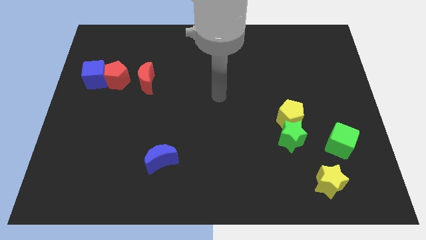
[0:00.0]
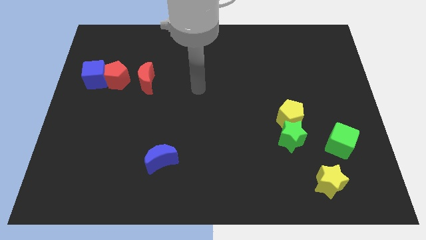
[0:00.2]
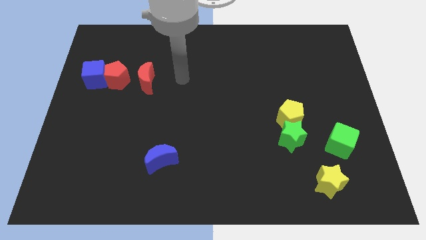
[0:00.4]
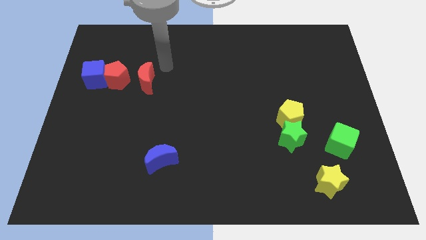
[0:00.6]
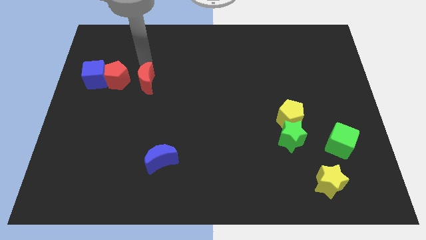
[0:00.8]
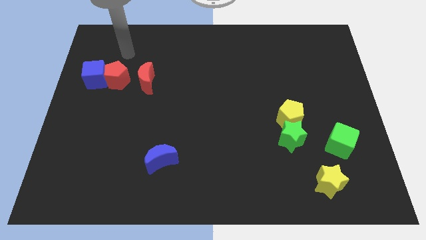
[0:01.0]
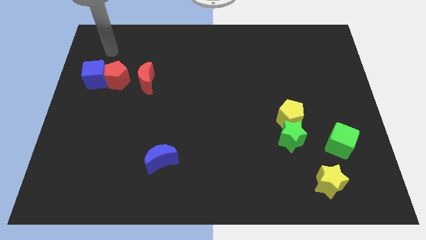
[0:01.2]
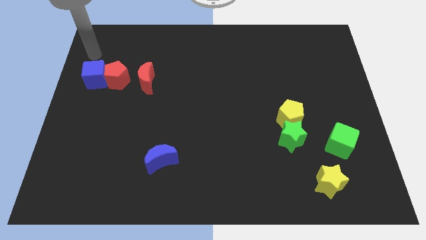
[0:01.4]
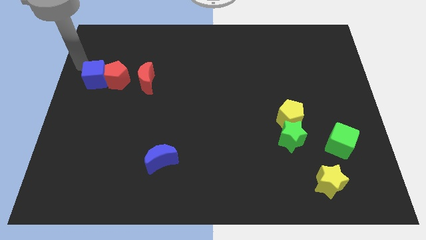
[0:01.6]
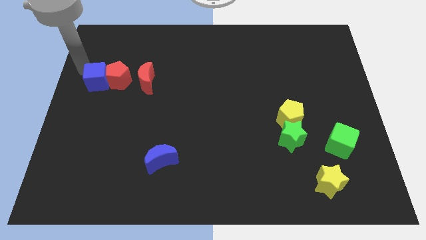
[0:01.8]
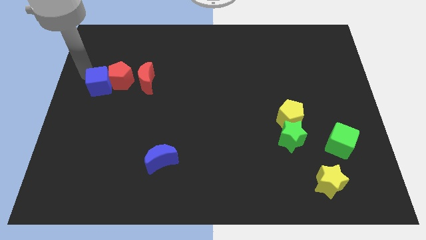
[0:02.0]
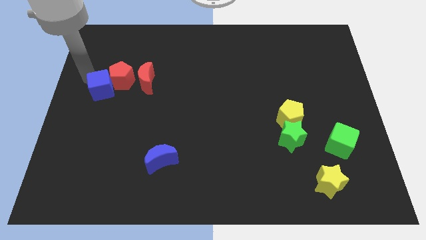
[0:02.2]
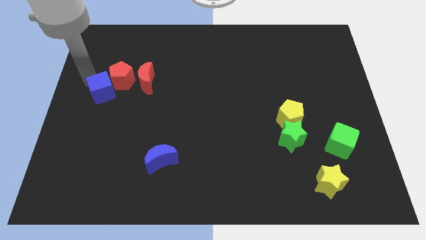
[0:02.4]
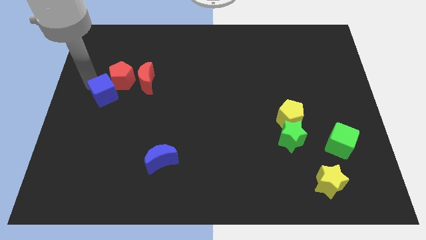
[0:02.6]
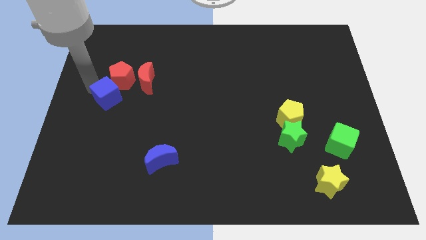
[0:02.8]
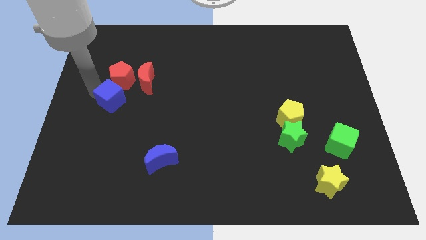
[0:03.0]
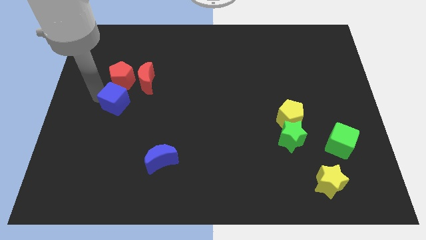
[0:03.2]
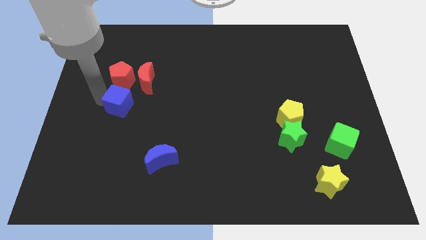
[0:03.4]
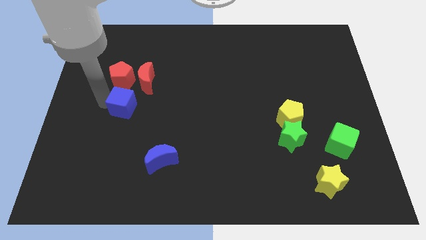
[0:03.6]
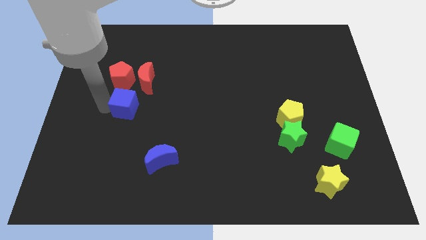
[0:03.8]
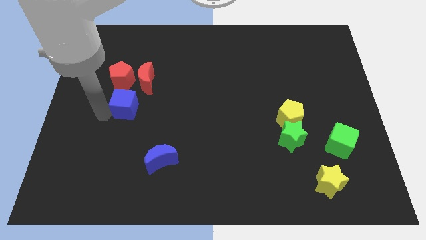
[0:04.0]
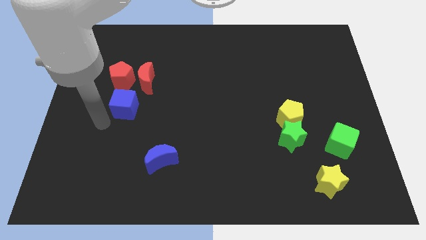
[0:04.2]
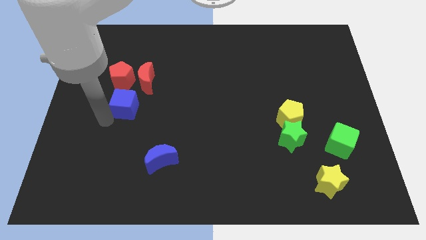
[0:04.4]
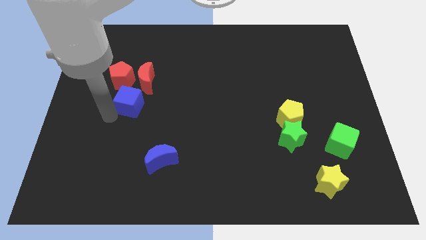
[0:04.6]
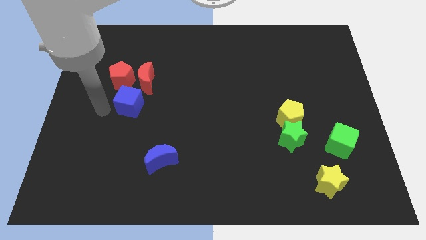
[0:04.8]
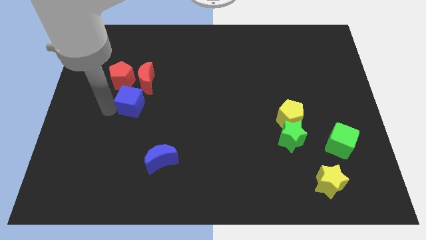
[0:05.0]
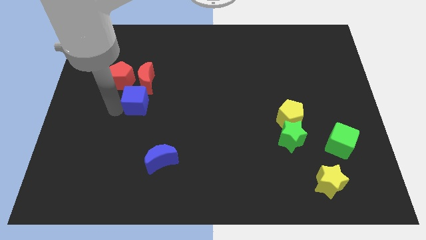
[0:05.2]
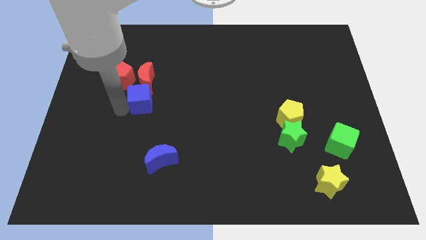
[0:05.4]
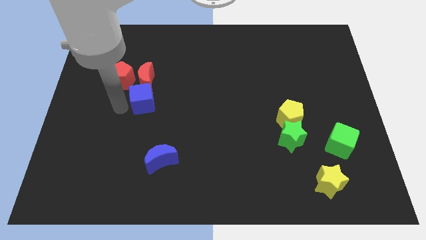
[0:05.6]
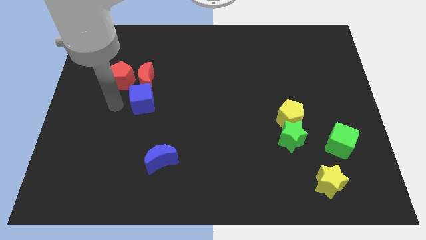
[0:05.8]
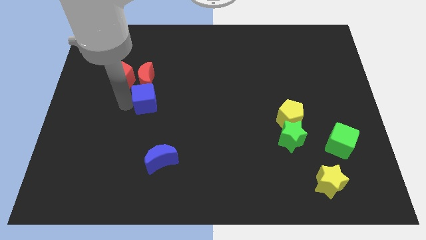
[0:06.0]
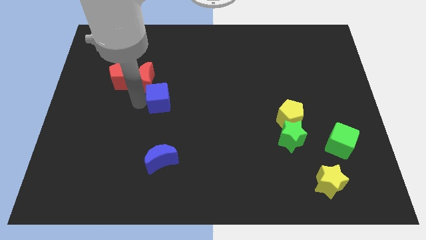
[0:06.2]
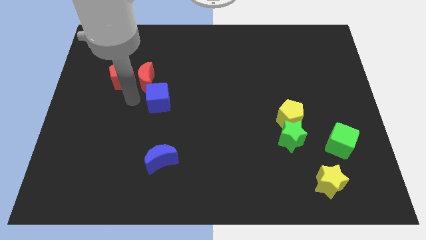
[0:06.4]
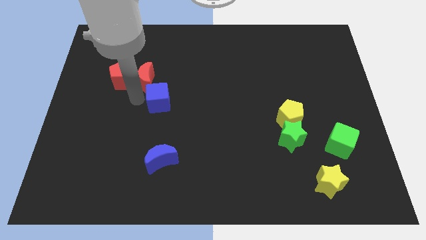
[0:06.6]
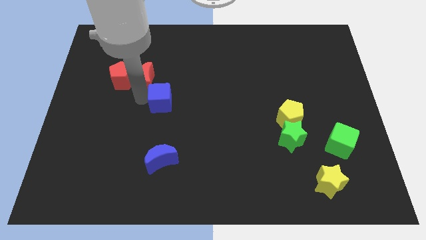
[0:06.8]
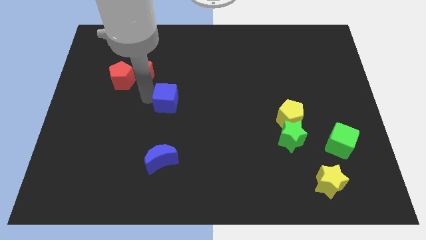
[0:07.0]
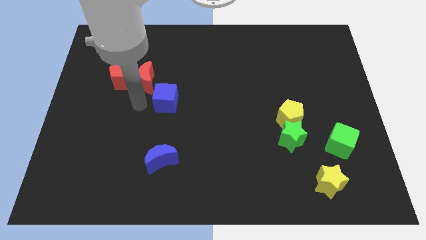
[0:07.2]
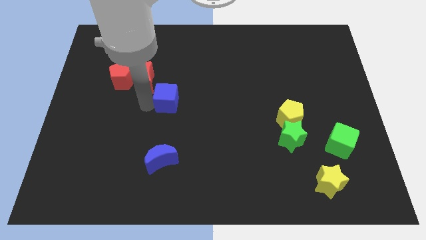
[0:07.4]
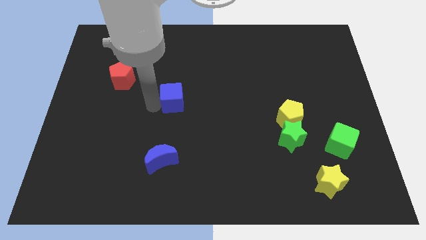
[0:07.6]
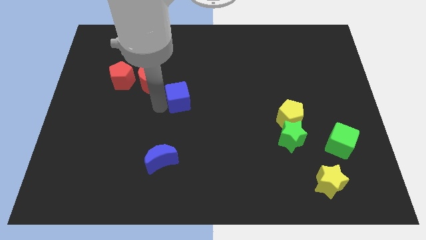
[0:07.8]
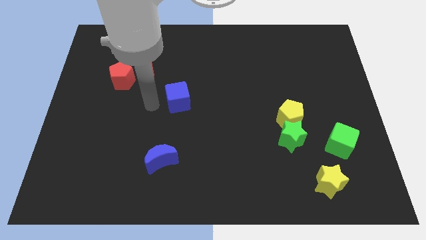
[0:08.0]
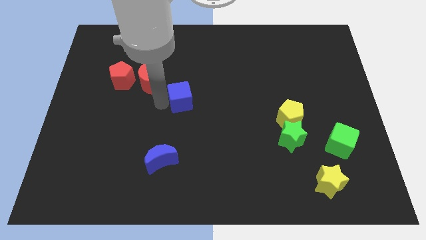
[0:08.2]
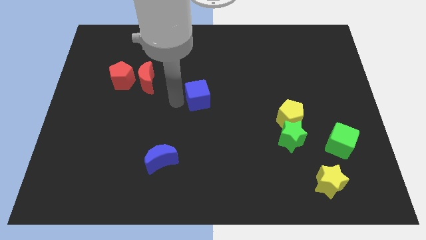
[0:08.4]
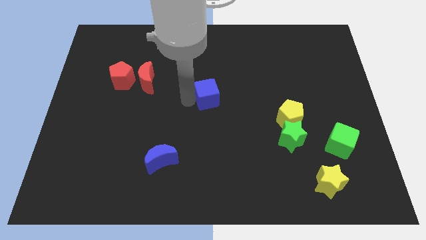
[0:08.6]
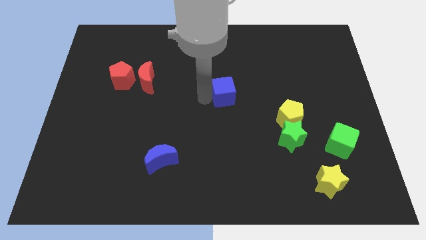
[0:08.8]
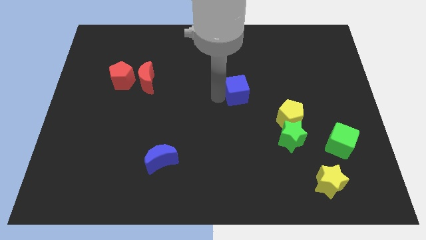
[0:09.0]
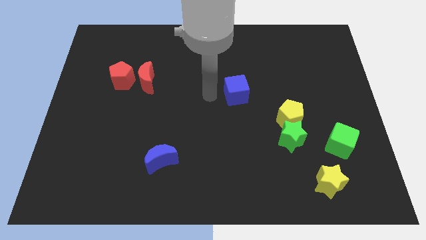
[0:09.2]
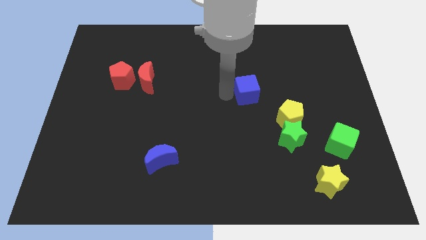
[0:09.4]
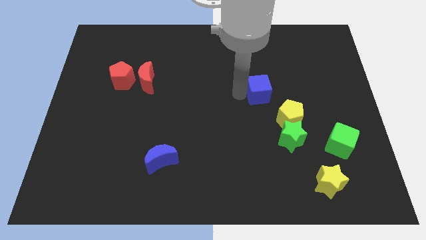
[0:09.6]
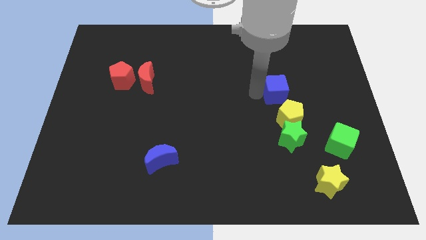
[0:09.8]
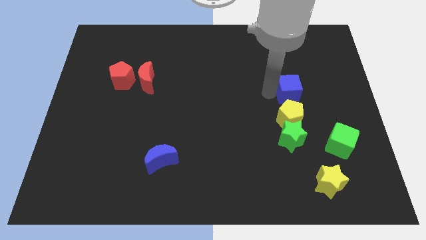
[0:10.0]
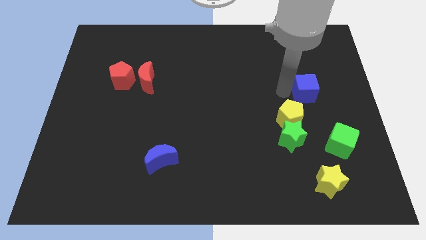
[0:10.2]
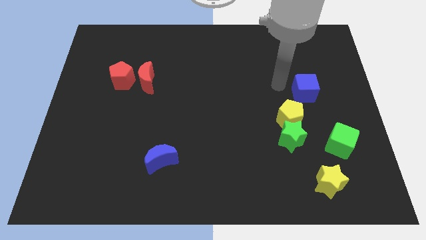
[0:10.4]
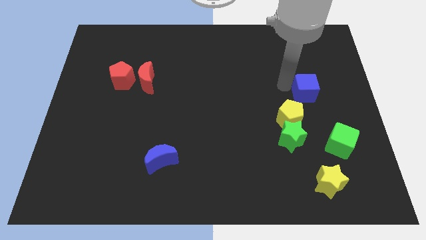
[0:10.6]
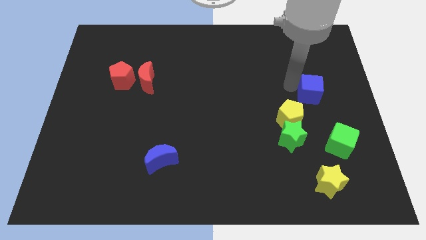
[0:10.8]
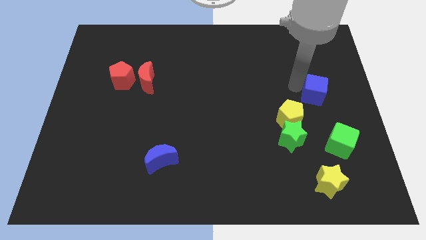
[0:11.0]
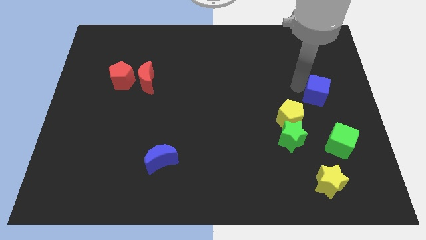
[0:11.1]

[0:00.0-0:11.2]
move the blue cube to the right side of the board

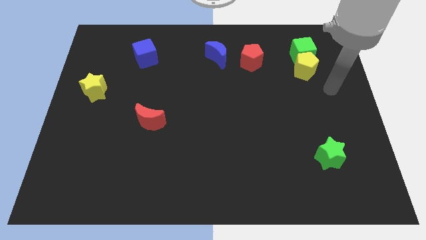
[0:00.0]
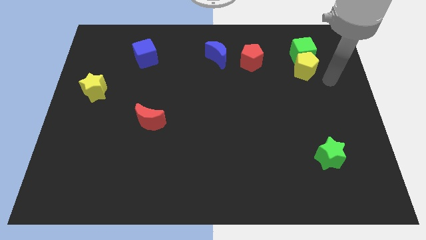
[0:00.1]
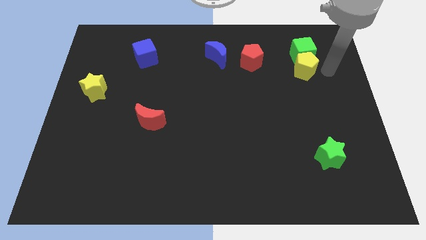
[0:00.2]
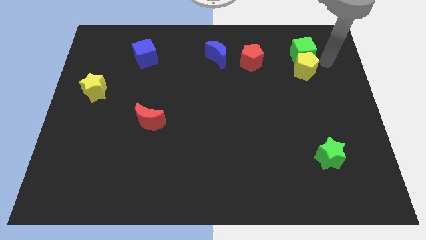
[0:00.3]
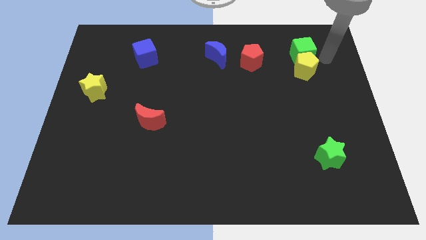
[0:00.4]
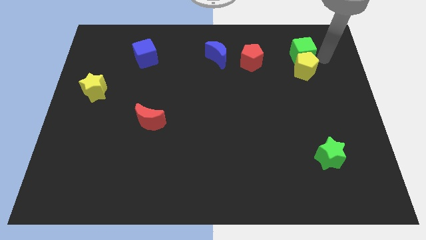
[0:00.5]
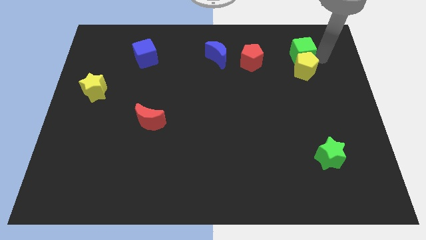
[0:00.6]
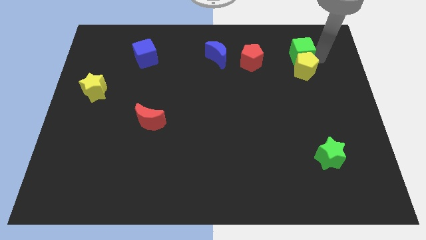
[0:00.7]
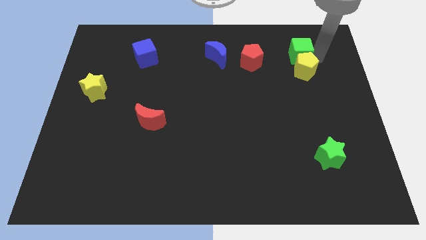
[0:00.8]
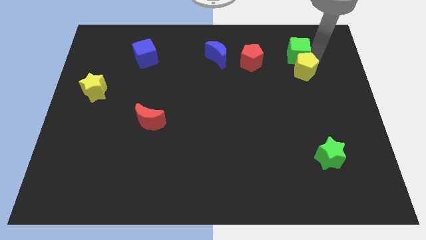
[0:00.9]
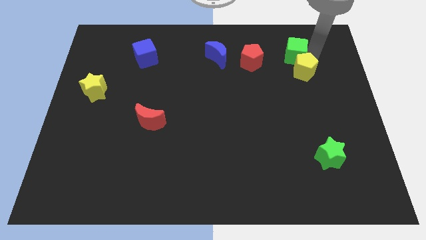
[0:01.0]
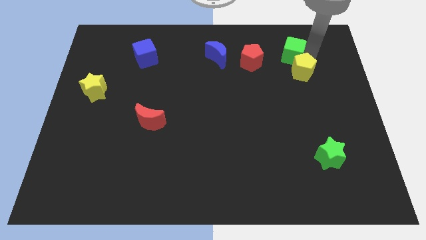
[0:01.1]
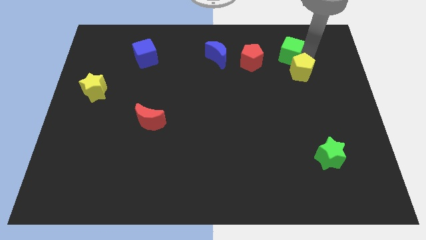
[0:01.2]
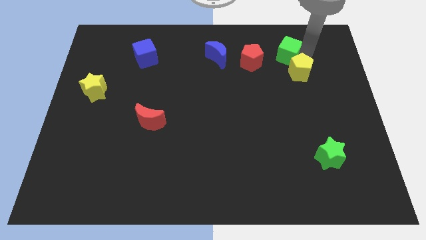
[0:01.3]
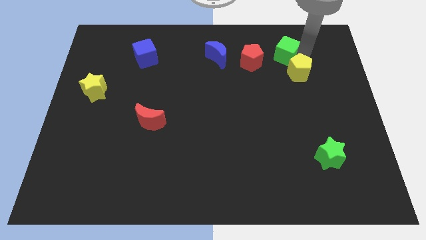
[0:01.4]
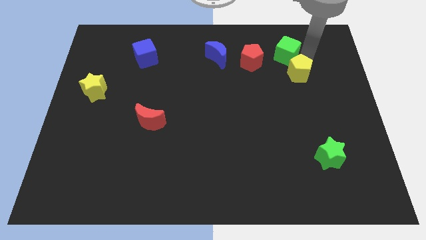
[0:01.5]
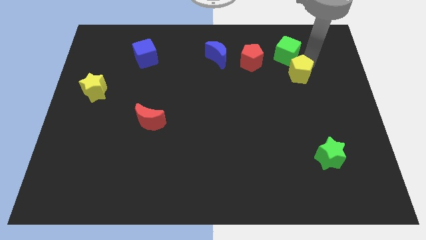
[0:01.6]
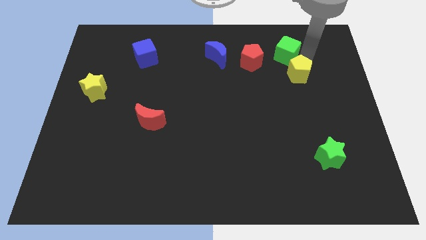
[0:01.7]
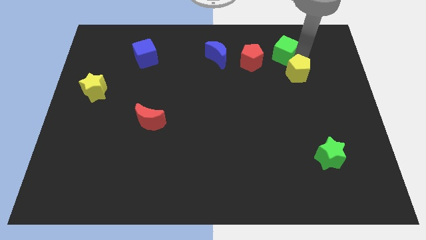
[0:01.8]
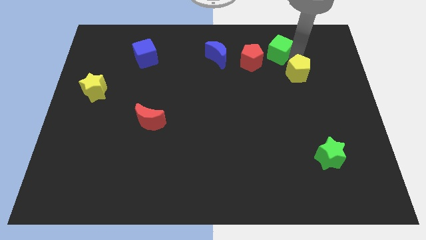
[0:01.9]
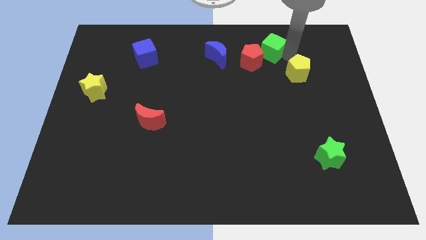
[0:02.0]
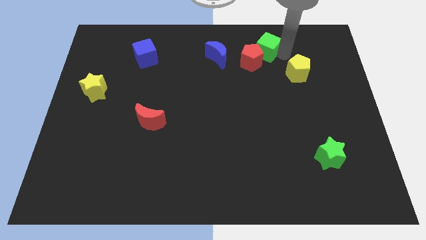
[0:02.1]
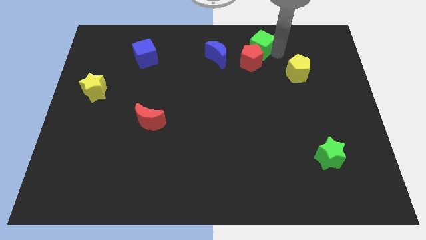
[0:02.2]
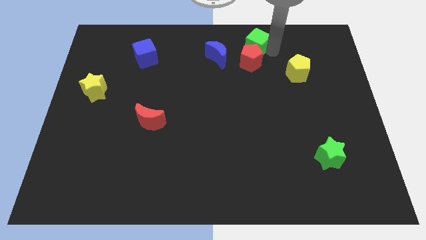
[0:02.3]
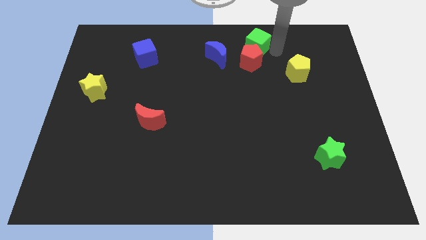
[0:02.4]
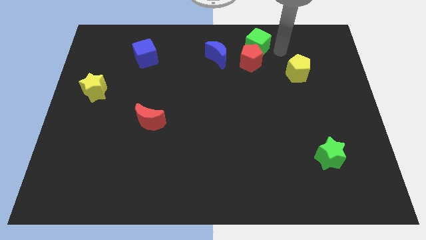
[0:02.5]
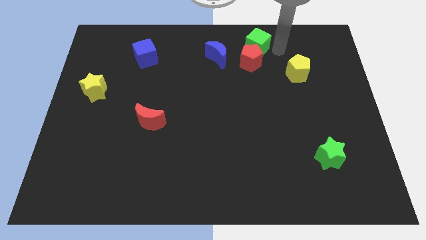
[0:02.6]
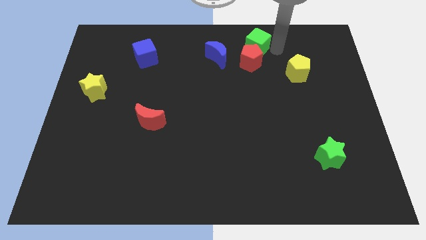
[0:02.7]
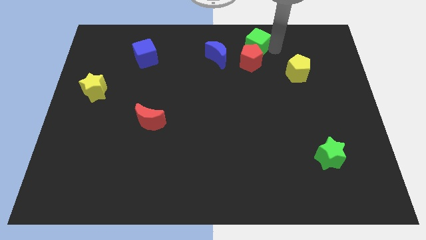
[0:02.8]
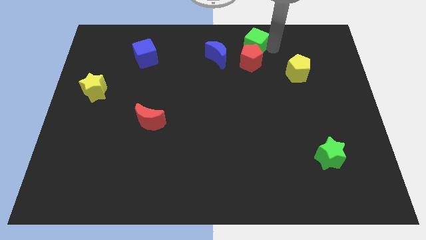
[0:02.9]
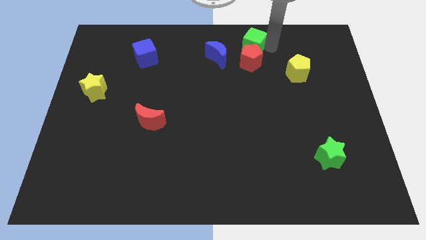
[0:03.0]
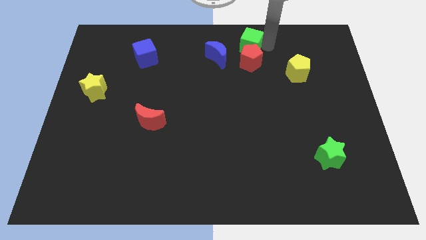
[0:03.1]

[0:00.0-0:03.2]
push the green cube to the towards your base
